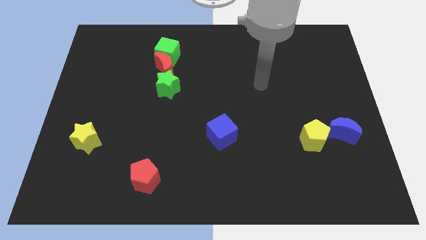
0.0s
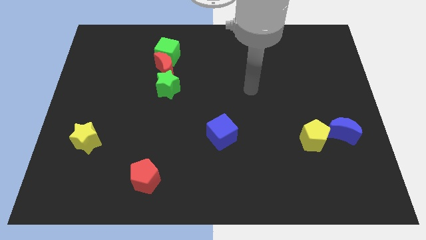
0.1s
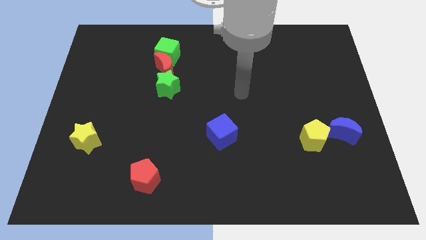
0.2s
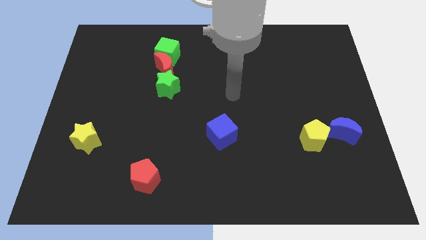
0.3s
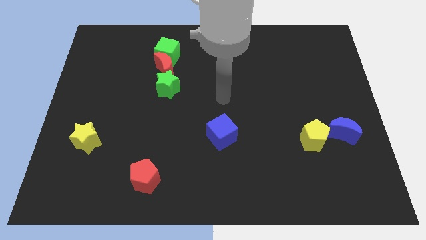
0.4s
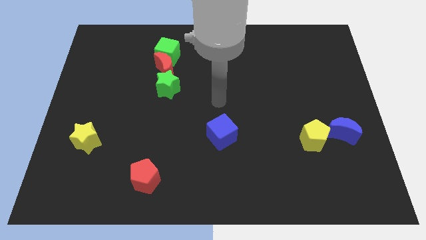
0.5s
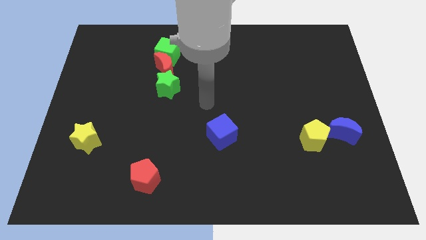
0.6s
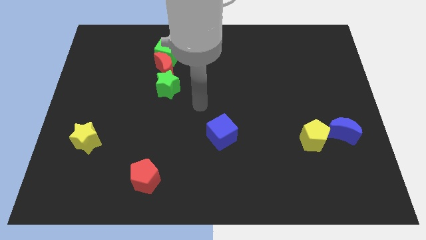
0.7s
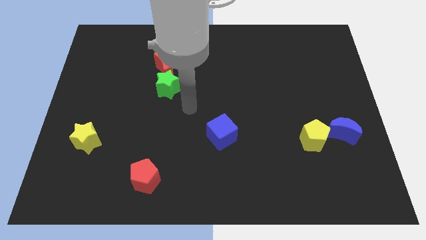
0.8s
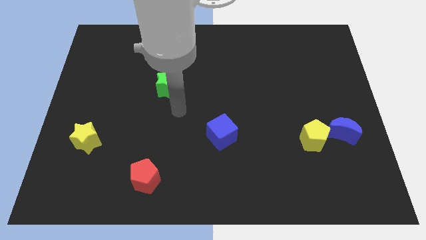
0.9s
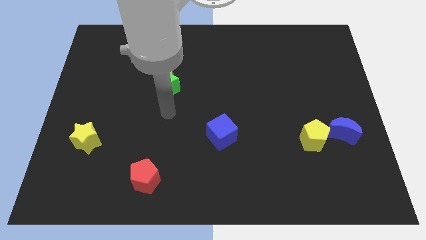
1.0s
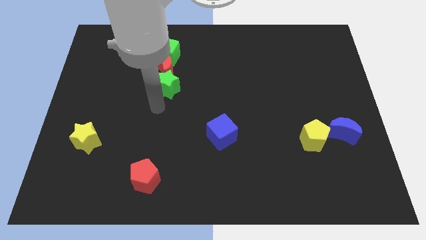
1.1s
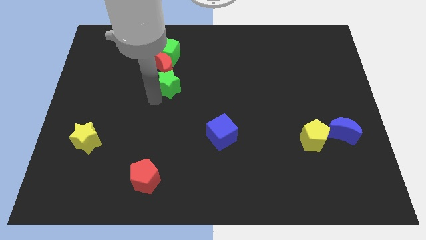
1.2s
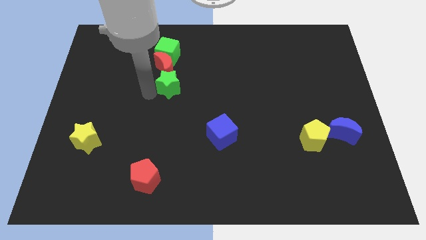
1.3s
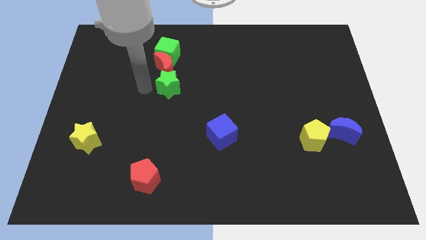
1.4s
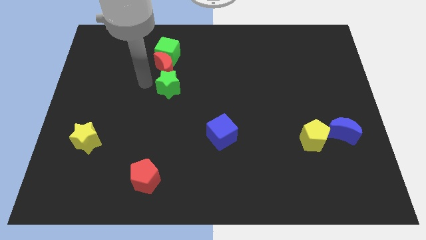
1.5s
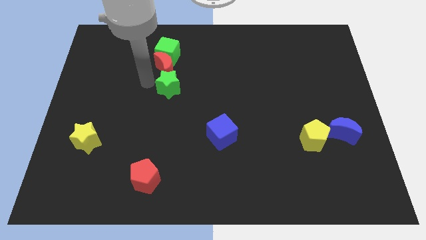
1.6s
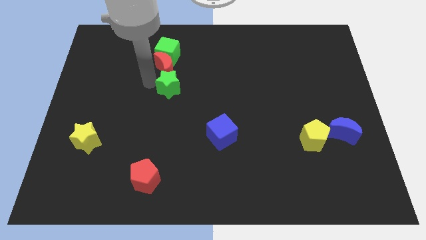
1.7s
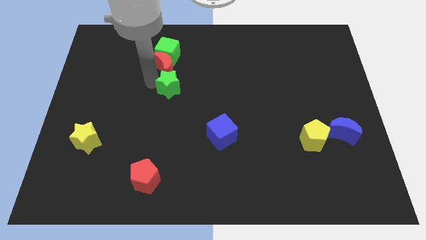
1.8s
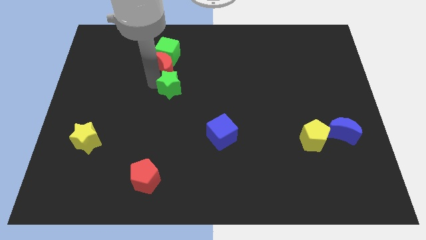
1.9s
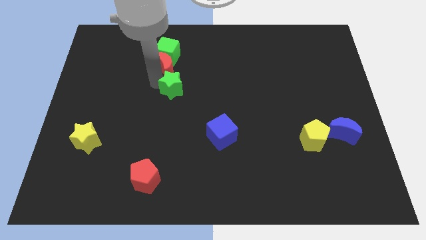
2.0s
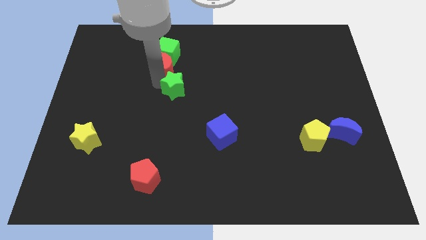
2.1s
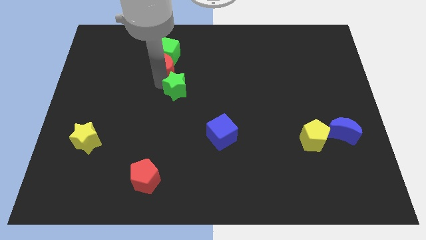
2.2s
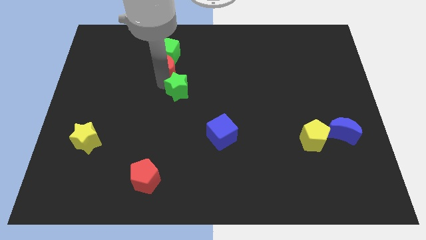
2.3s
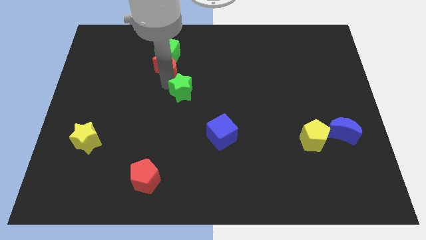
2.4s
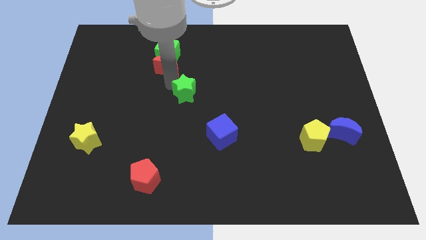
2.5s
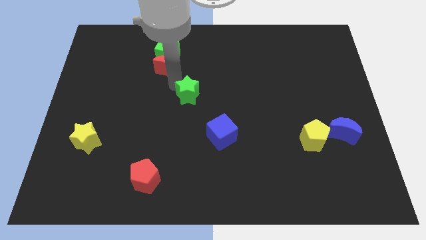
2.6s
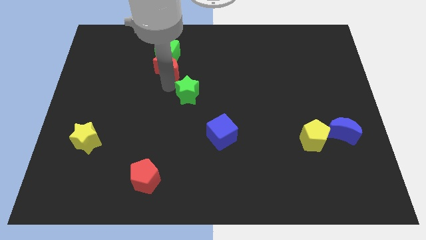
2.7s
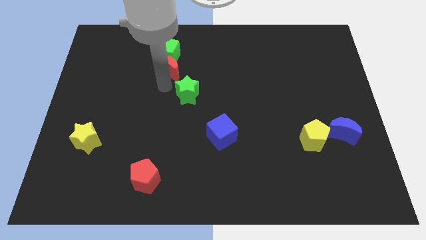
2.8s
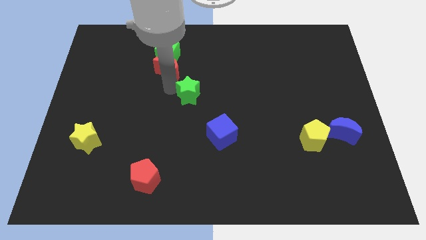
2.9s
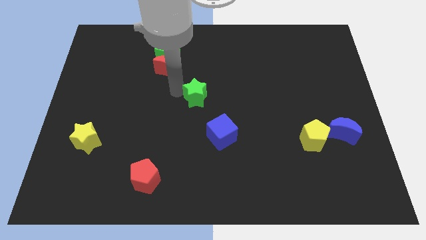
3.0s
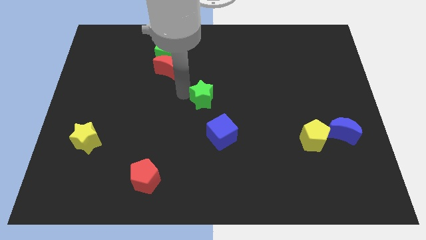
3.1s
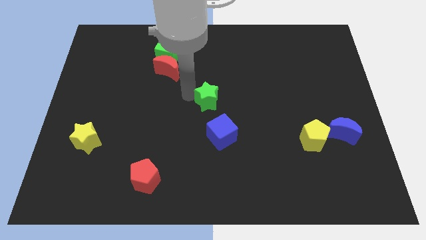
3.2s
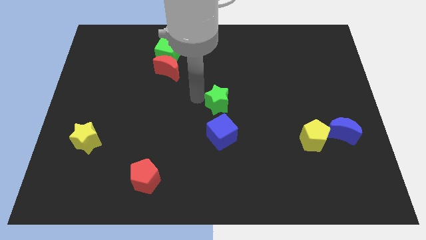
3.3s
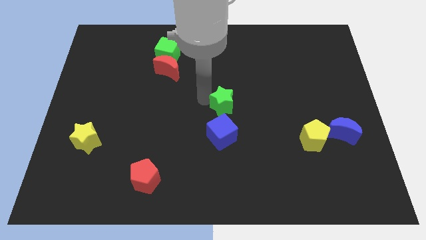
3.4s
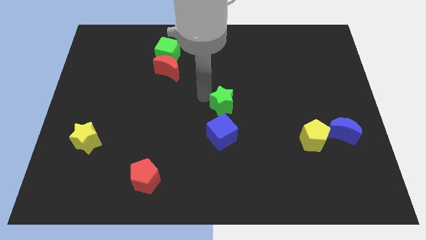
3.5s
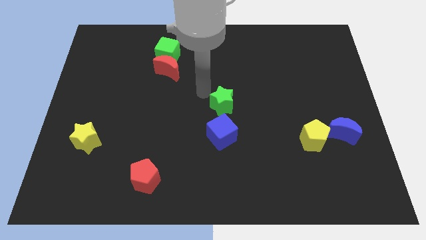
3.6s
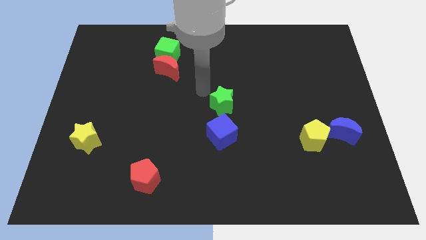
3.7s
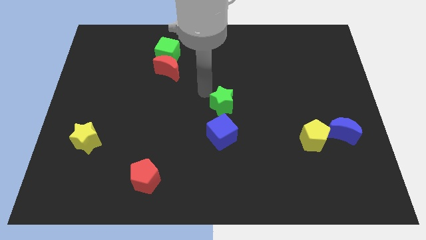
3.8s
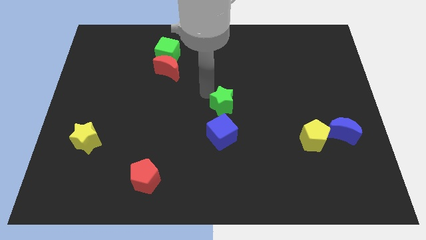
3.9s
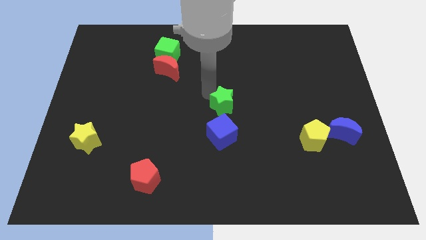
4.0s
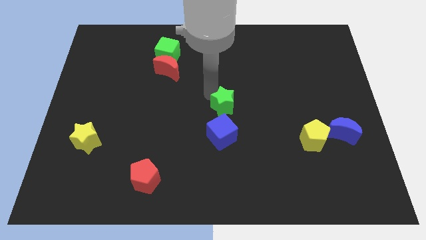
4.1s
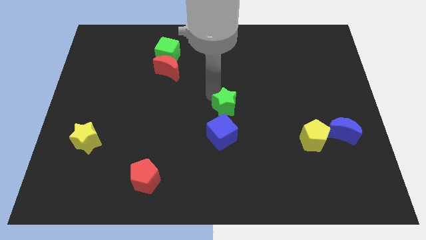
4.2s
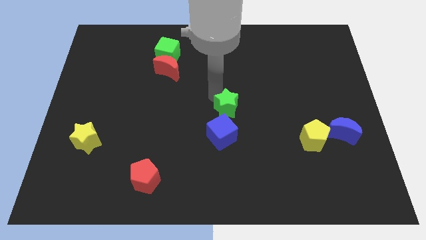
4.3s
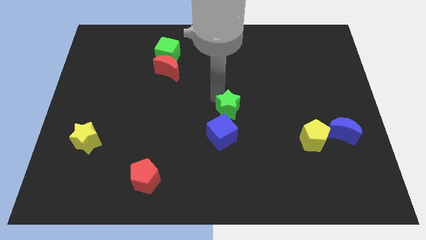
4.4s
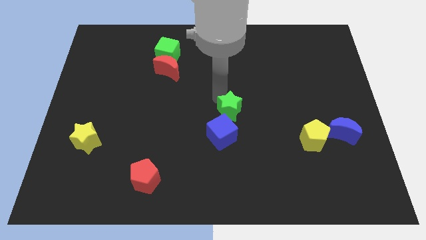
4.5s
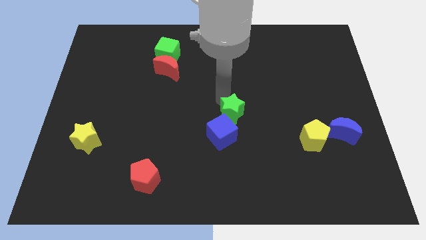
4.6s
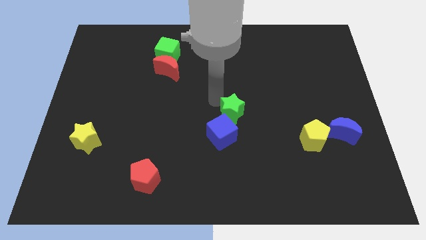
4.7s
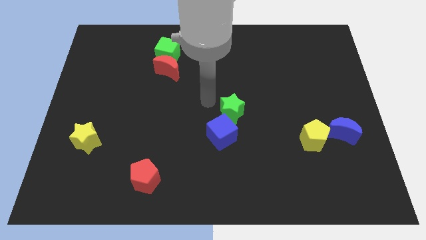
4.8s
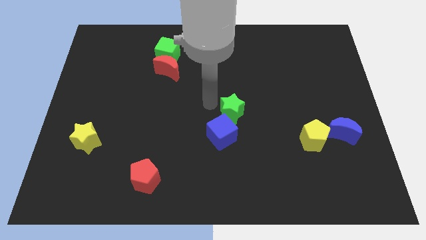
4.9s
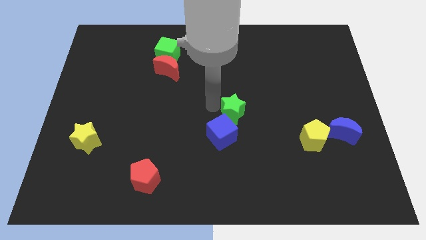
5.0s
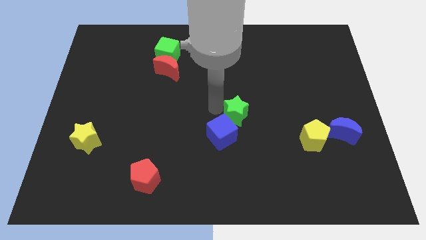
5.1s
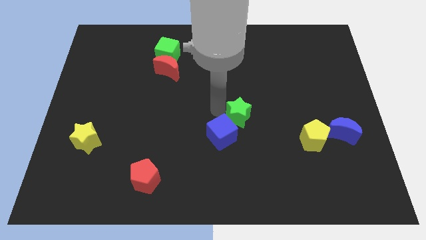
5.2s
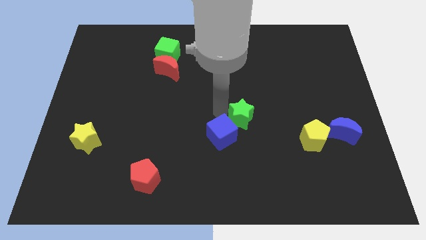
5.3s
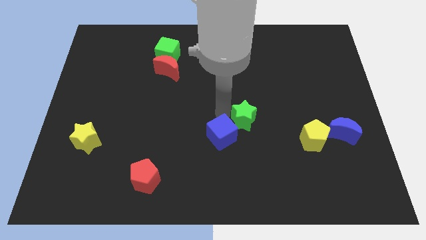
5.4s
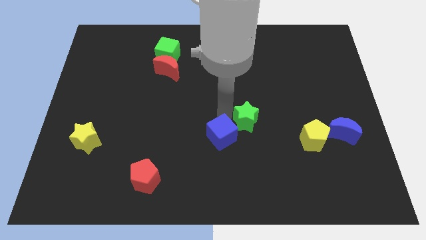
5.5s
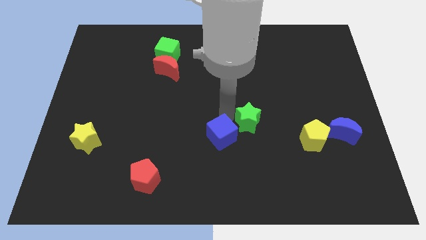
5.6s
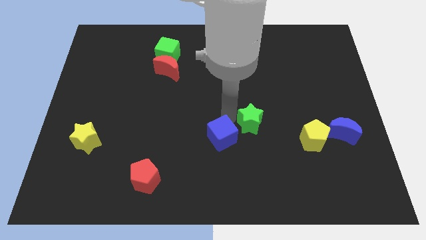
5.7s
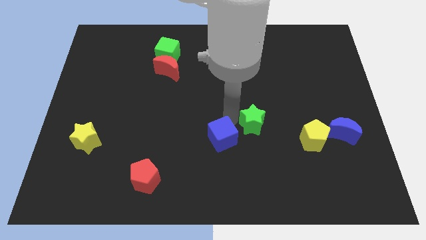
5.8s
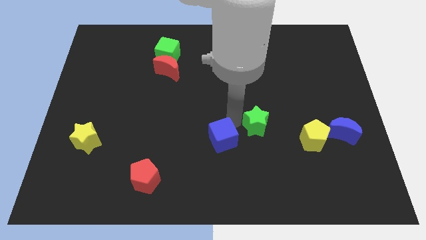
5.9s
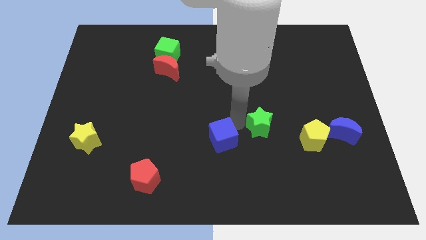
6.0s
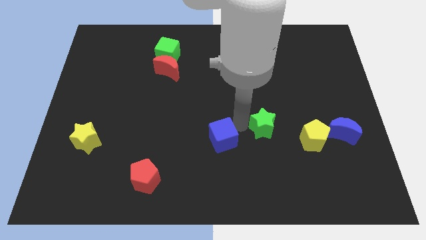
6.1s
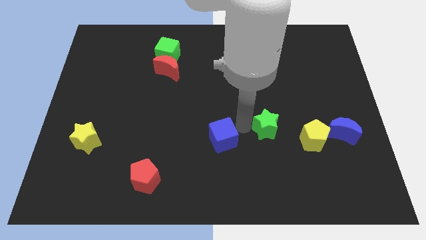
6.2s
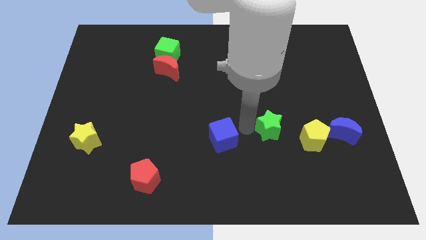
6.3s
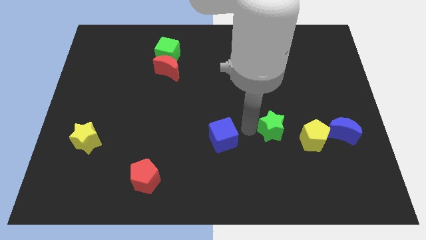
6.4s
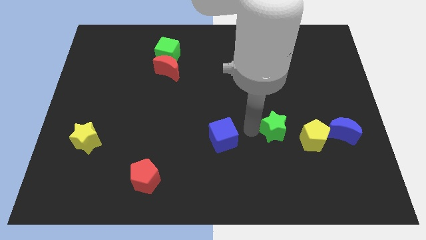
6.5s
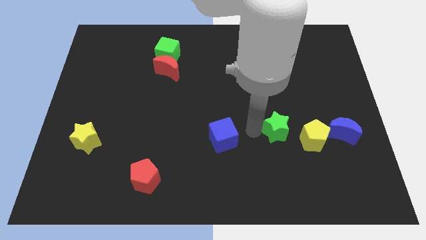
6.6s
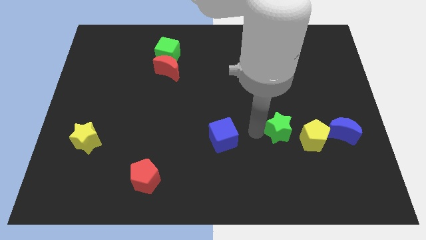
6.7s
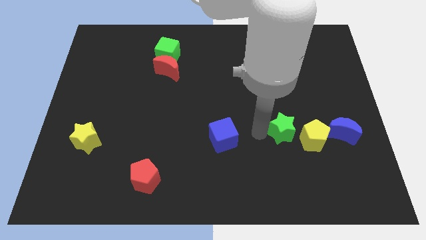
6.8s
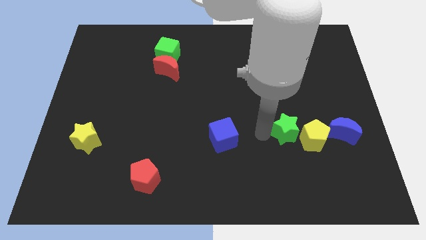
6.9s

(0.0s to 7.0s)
slide the green star next to the yellow pentagon
